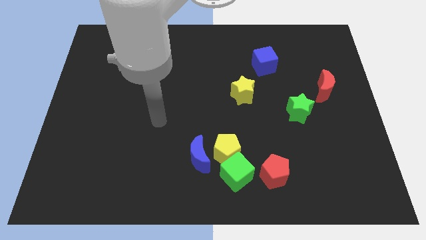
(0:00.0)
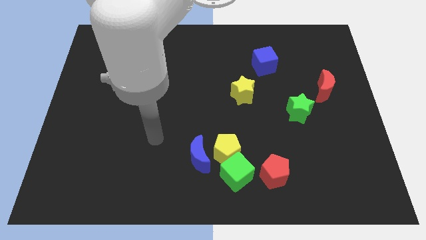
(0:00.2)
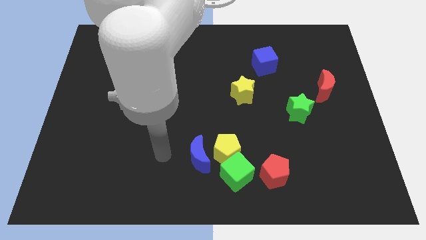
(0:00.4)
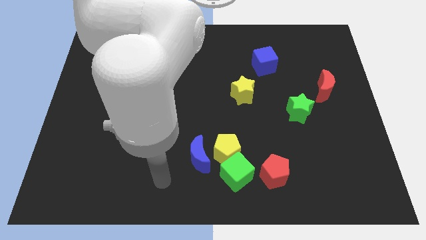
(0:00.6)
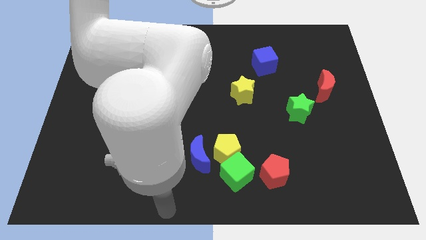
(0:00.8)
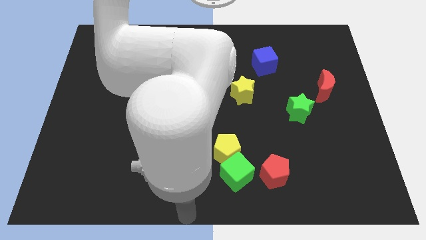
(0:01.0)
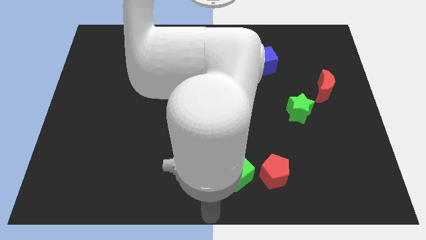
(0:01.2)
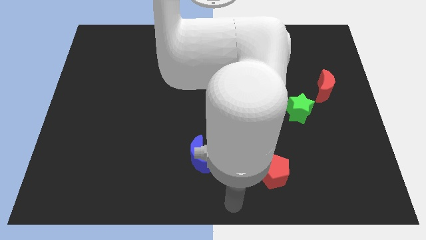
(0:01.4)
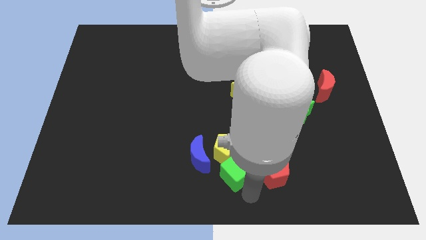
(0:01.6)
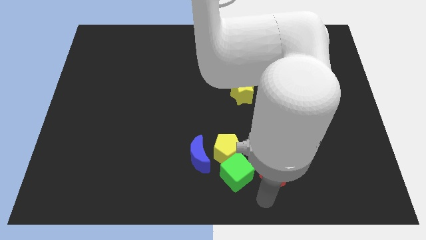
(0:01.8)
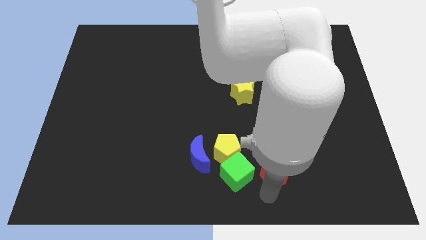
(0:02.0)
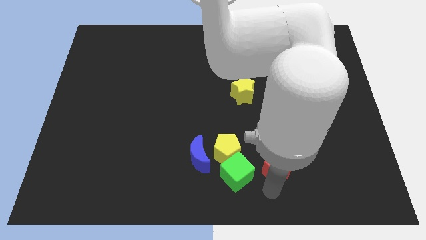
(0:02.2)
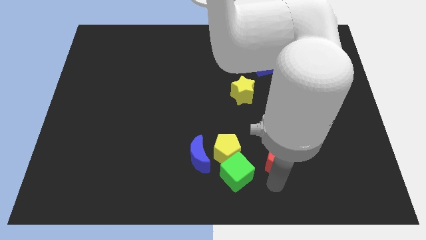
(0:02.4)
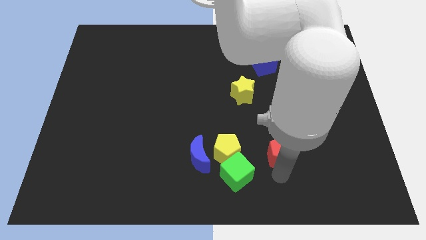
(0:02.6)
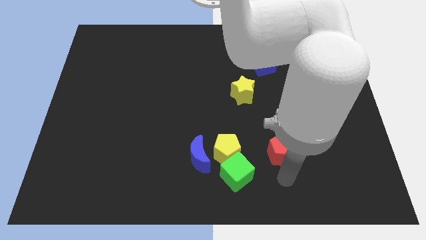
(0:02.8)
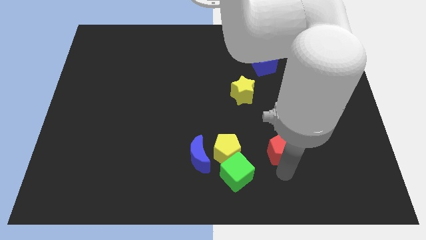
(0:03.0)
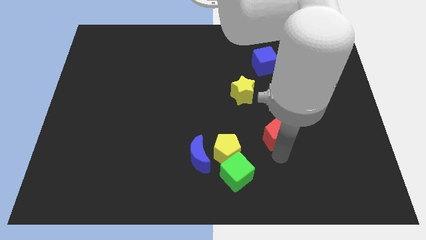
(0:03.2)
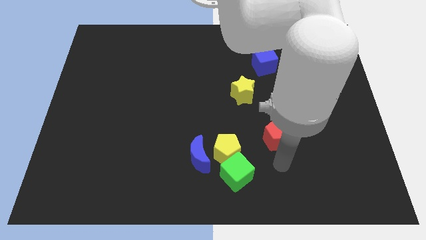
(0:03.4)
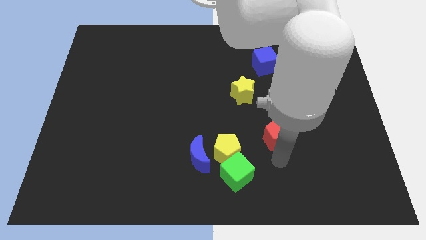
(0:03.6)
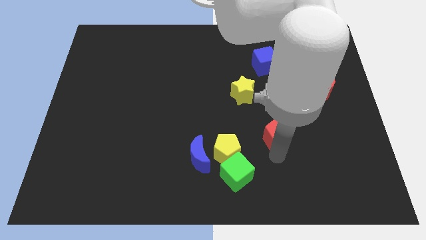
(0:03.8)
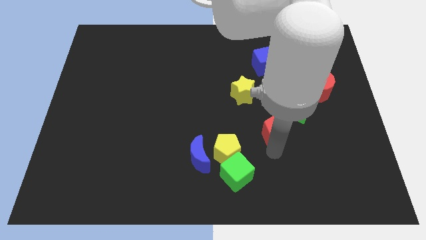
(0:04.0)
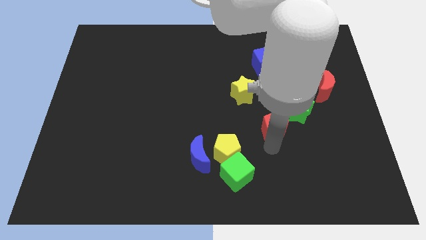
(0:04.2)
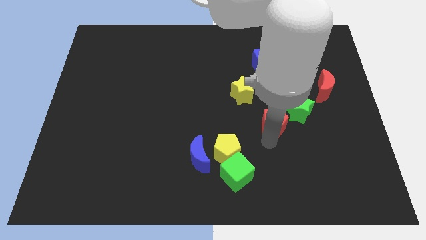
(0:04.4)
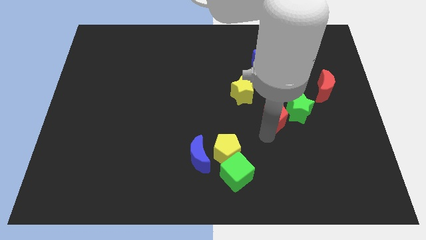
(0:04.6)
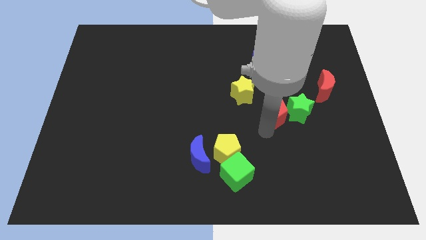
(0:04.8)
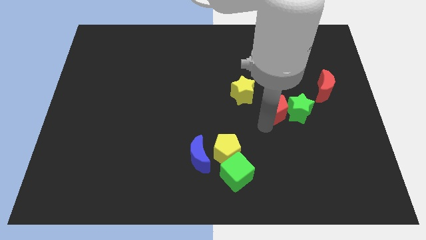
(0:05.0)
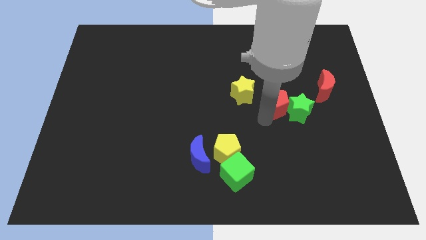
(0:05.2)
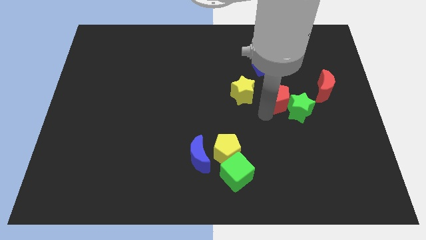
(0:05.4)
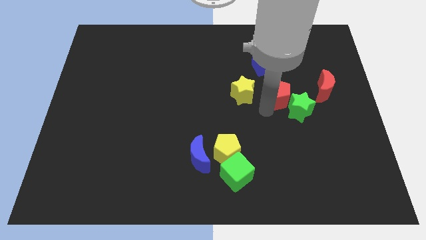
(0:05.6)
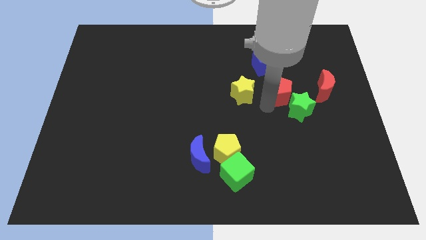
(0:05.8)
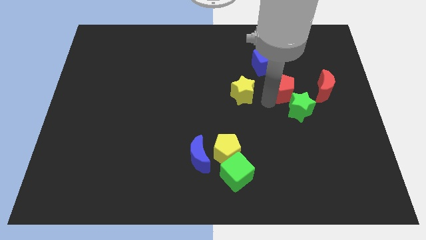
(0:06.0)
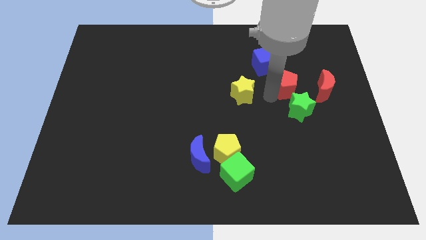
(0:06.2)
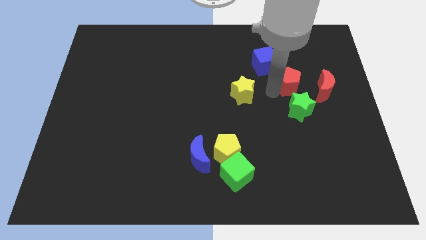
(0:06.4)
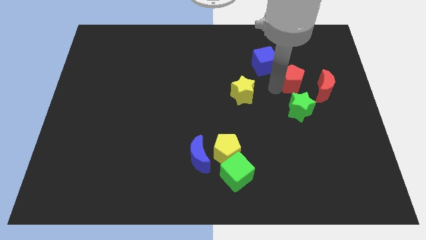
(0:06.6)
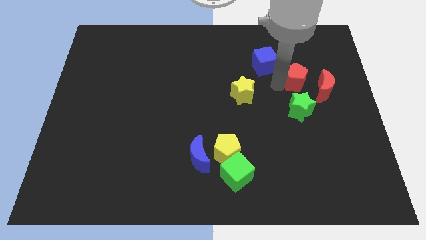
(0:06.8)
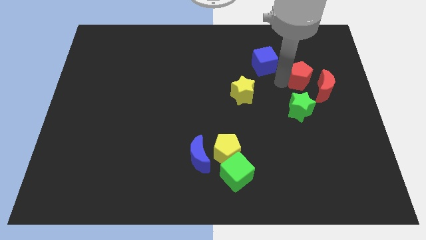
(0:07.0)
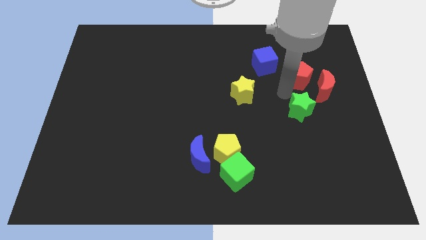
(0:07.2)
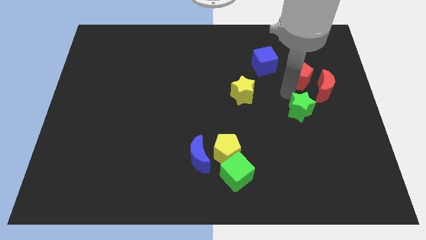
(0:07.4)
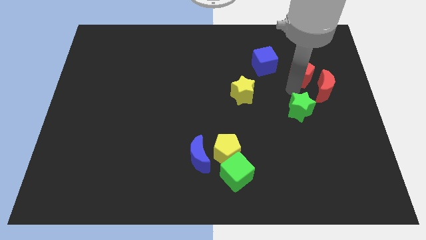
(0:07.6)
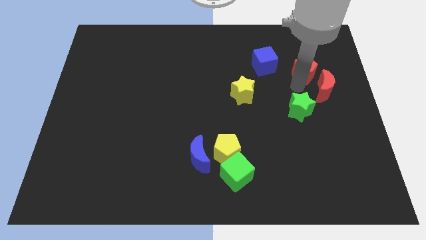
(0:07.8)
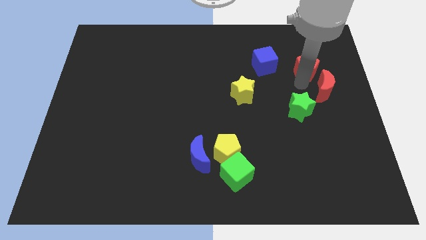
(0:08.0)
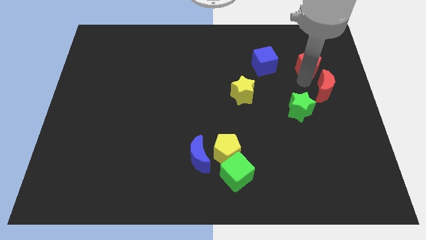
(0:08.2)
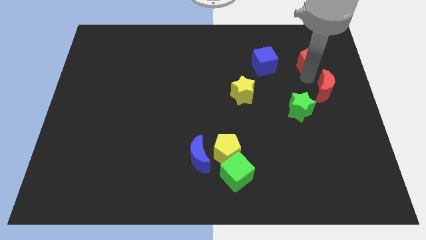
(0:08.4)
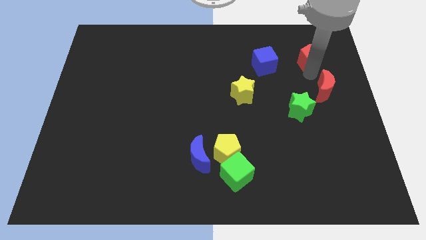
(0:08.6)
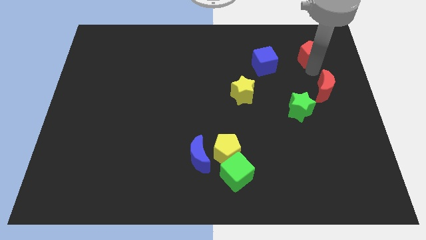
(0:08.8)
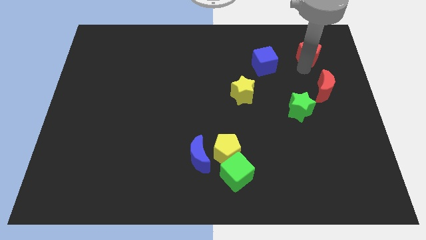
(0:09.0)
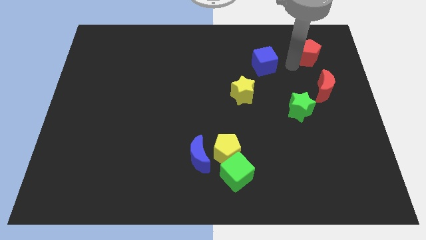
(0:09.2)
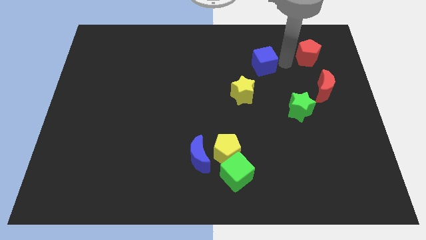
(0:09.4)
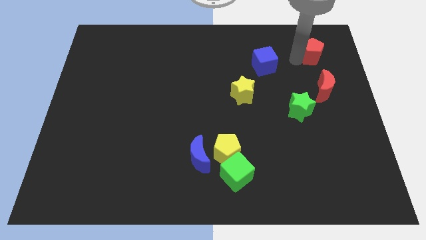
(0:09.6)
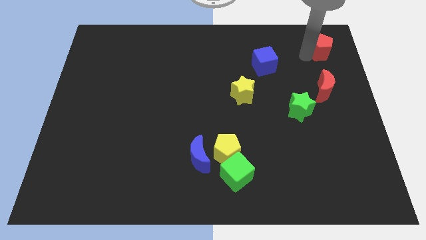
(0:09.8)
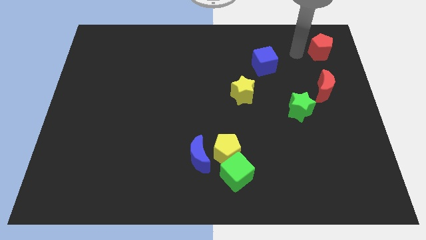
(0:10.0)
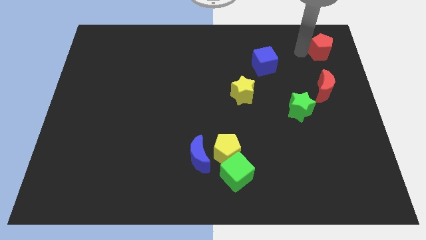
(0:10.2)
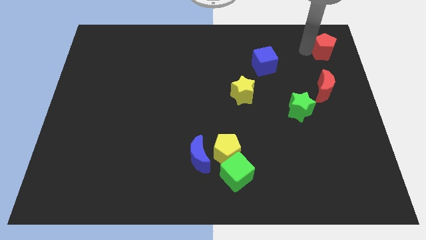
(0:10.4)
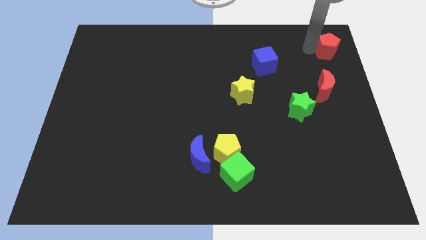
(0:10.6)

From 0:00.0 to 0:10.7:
slide the red pentagon to the top right of the board

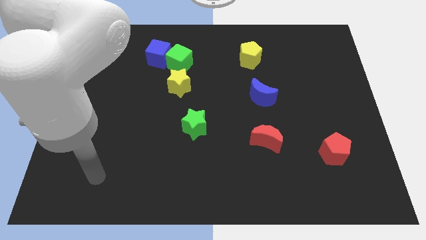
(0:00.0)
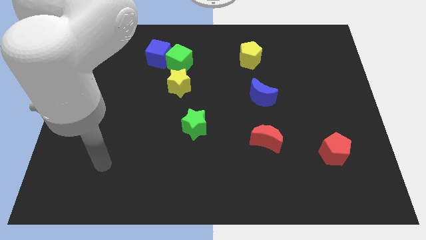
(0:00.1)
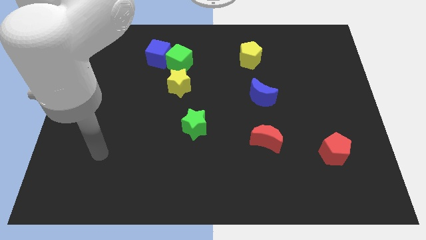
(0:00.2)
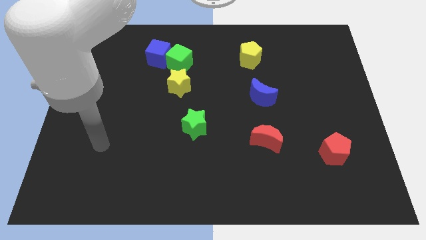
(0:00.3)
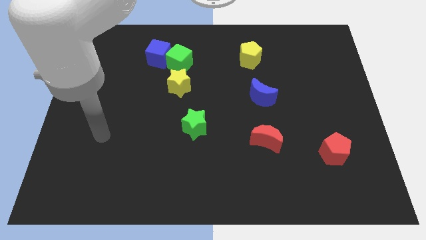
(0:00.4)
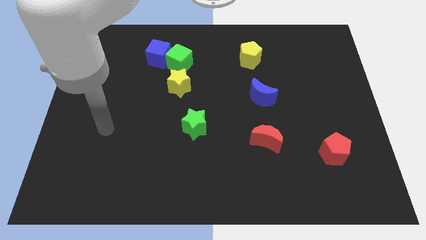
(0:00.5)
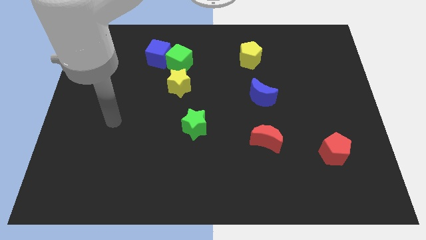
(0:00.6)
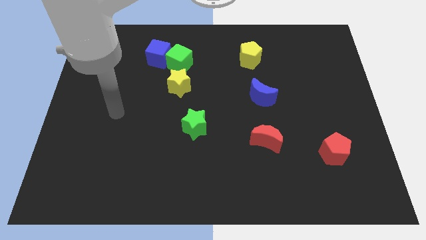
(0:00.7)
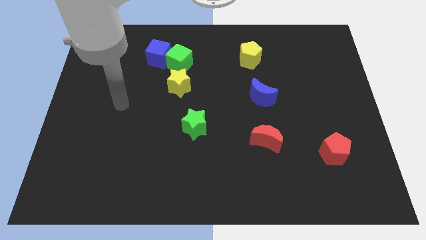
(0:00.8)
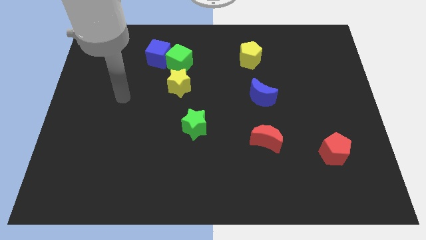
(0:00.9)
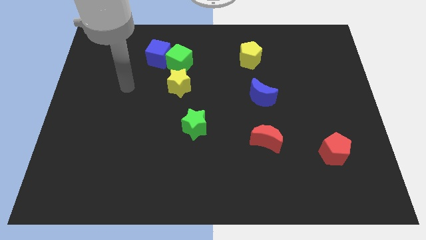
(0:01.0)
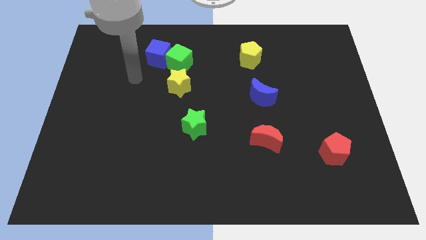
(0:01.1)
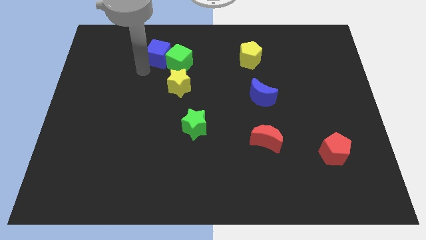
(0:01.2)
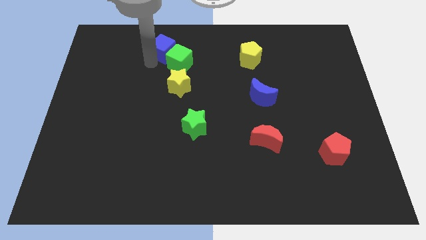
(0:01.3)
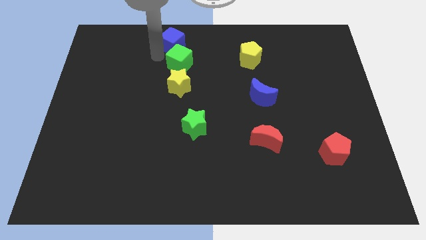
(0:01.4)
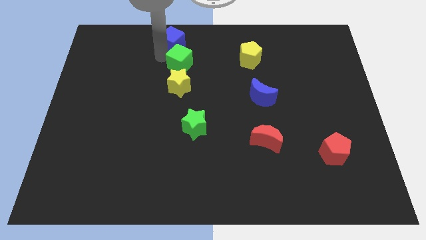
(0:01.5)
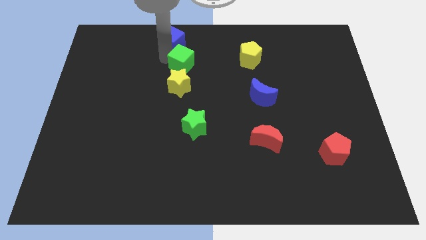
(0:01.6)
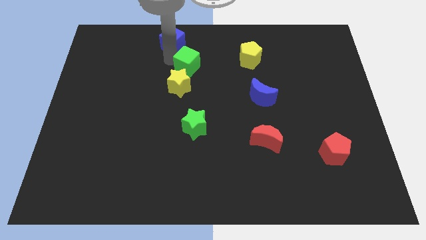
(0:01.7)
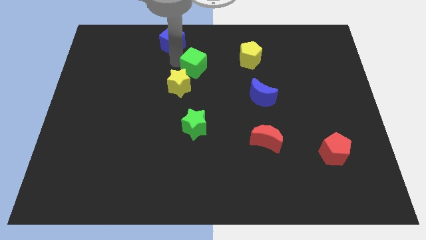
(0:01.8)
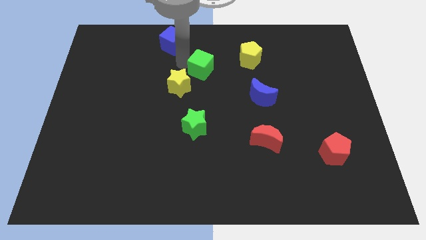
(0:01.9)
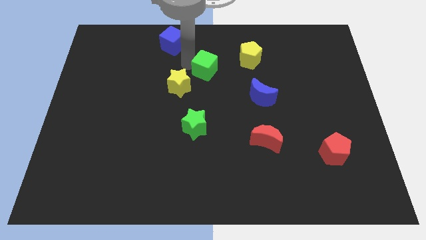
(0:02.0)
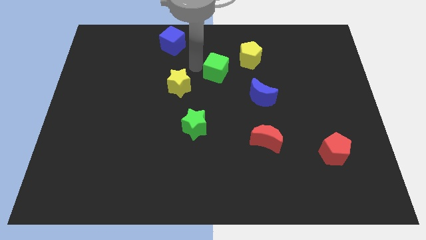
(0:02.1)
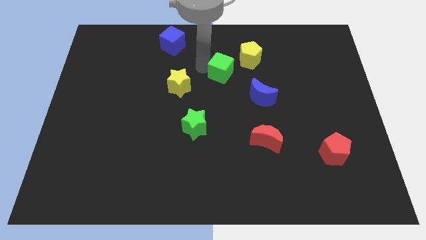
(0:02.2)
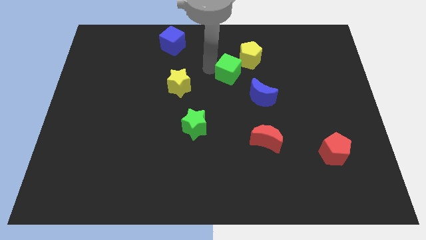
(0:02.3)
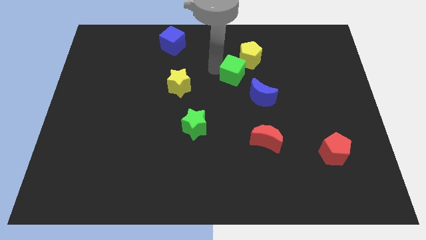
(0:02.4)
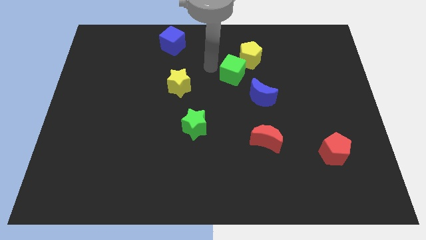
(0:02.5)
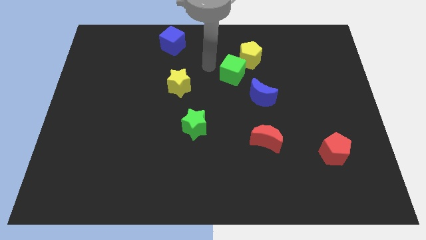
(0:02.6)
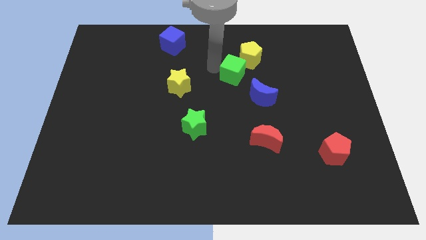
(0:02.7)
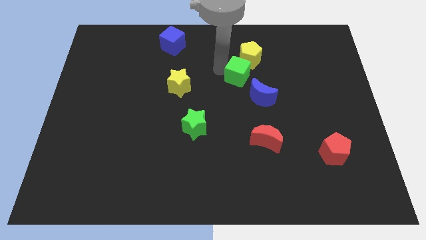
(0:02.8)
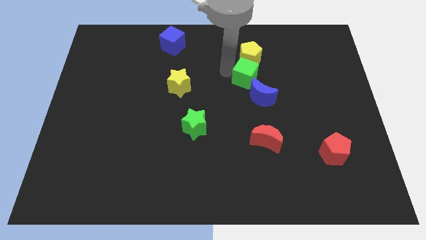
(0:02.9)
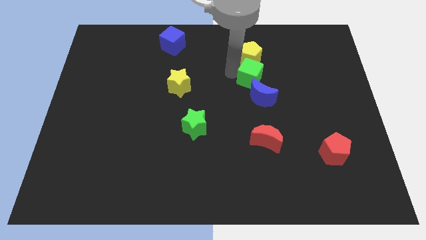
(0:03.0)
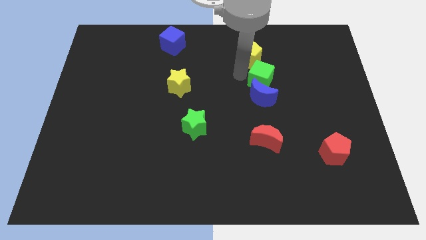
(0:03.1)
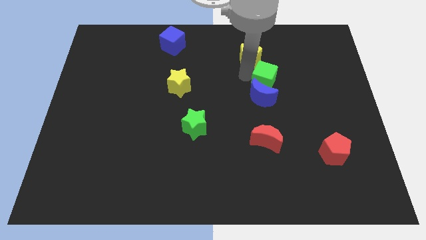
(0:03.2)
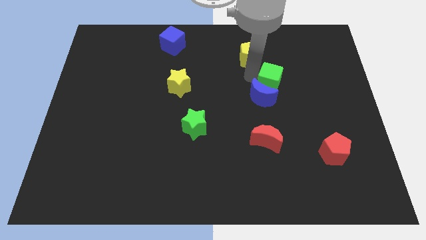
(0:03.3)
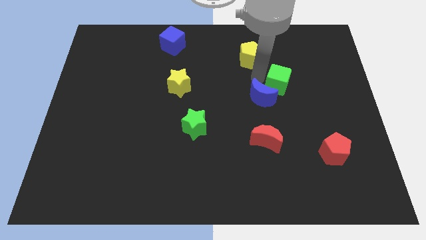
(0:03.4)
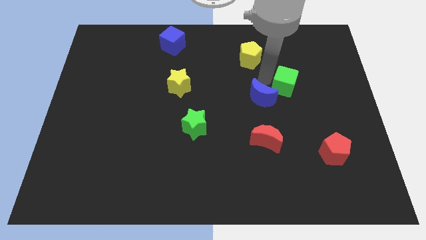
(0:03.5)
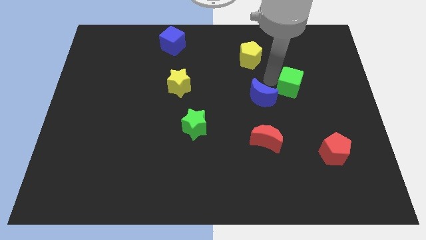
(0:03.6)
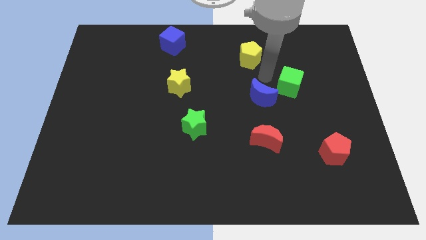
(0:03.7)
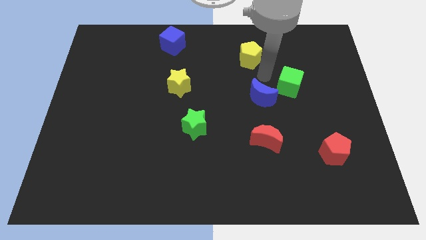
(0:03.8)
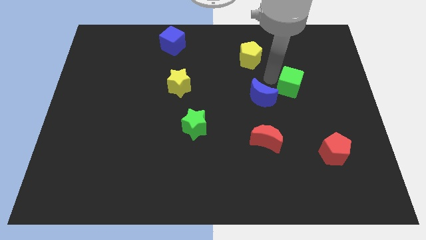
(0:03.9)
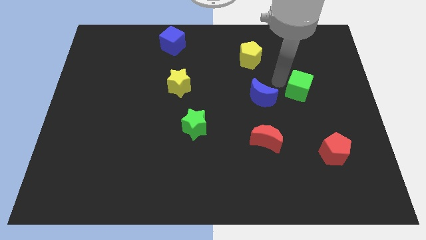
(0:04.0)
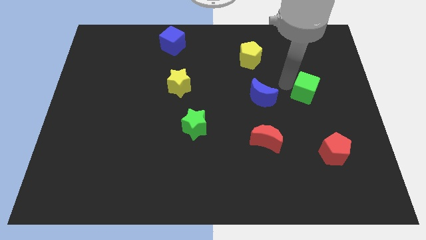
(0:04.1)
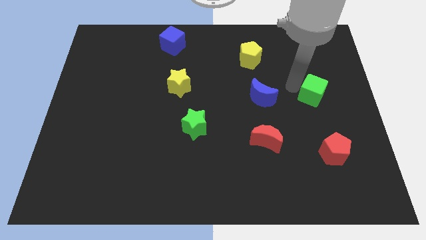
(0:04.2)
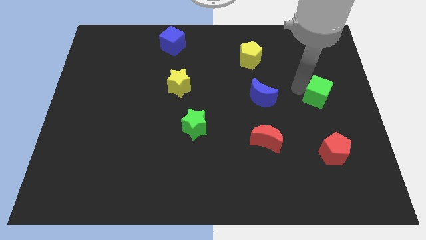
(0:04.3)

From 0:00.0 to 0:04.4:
slide the green cube to the right side
